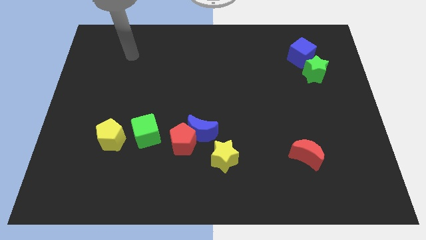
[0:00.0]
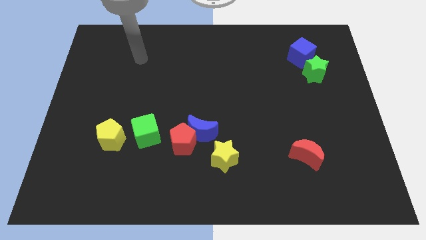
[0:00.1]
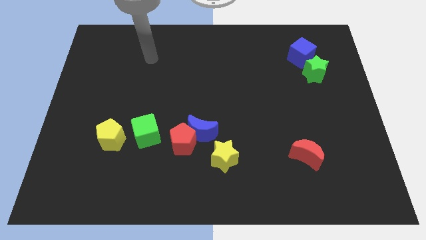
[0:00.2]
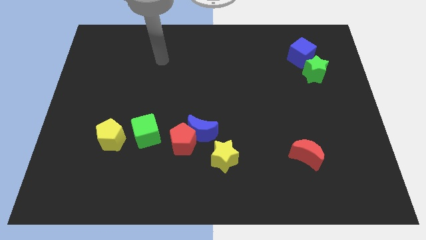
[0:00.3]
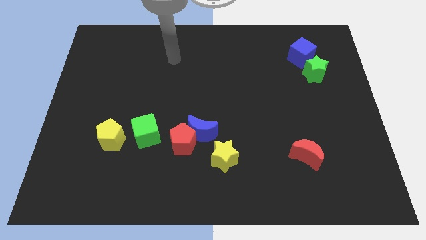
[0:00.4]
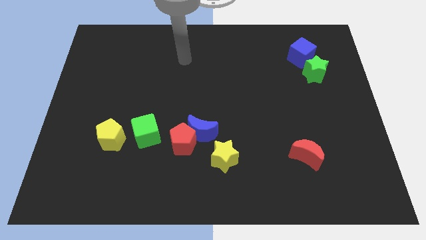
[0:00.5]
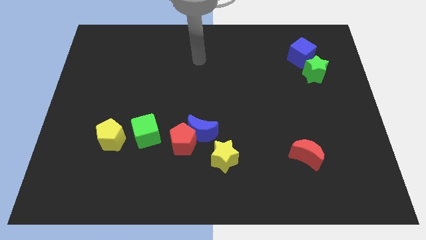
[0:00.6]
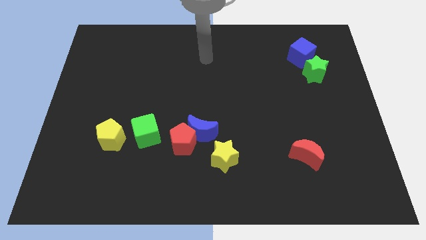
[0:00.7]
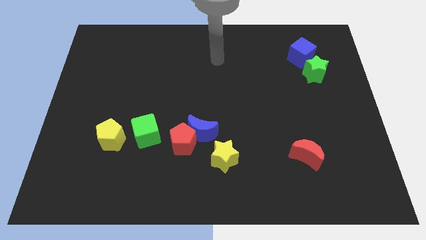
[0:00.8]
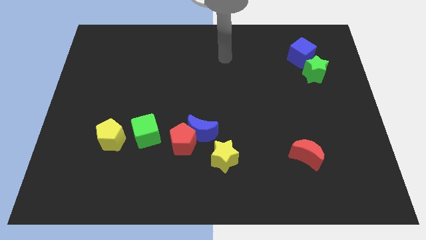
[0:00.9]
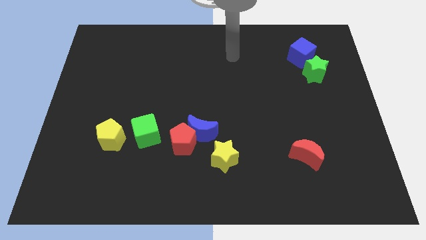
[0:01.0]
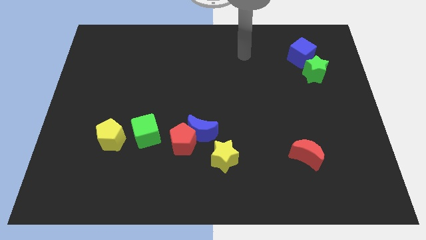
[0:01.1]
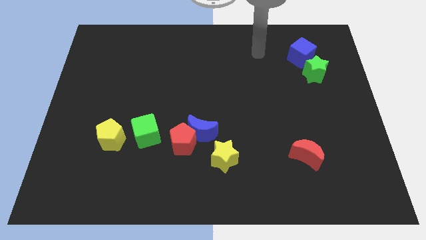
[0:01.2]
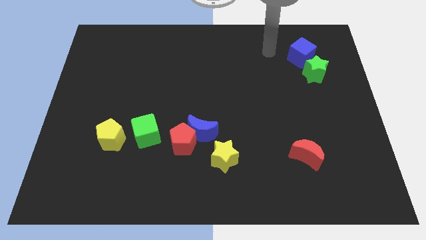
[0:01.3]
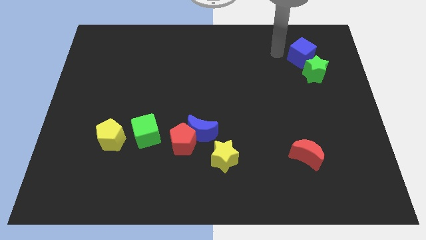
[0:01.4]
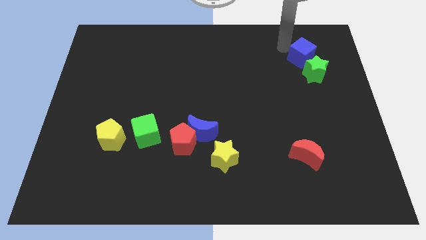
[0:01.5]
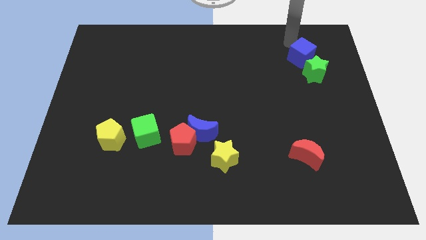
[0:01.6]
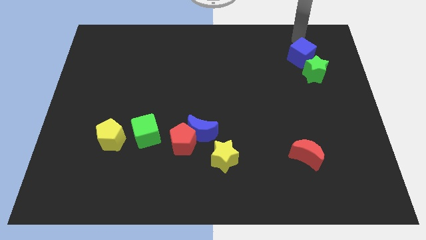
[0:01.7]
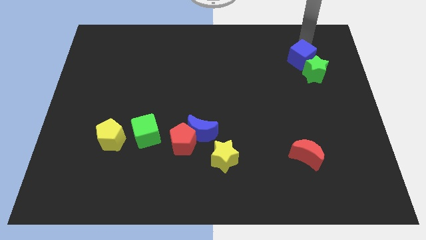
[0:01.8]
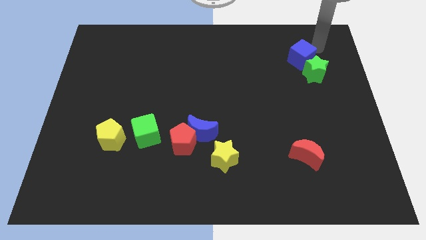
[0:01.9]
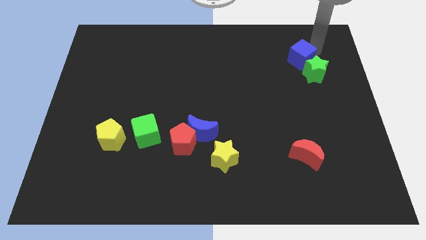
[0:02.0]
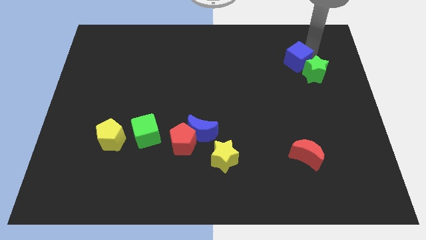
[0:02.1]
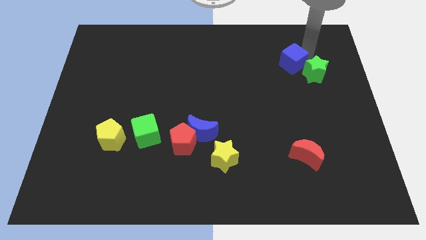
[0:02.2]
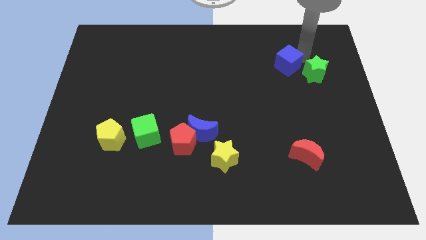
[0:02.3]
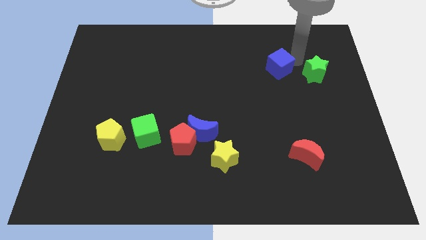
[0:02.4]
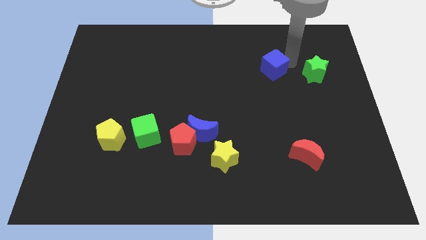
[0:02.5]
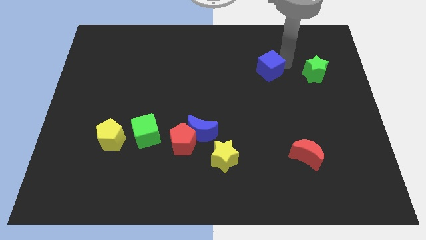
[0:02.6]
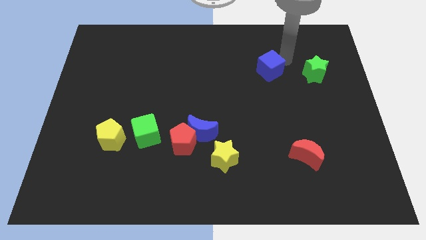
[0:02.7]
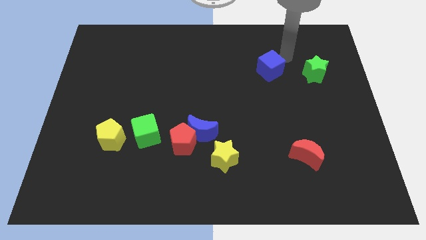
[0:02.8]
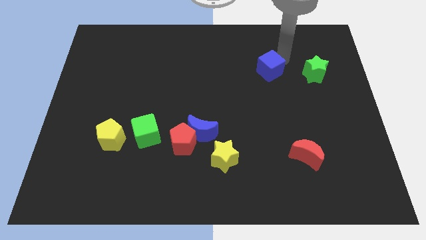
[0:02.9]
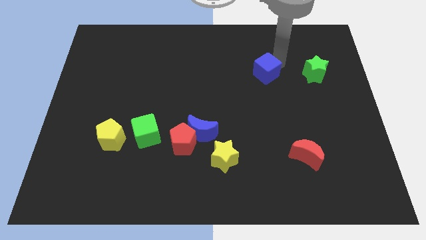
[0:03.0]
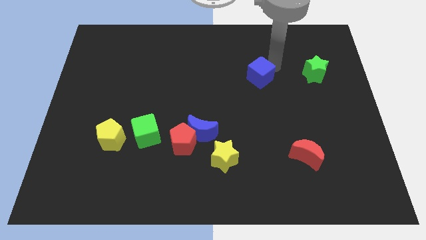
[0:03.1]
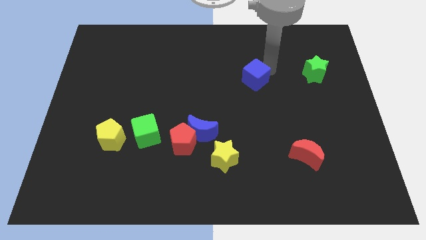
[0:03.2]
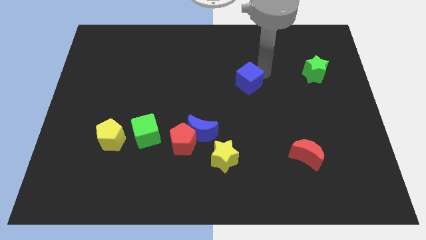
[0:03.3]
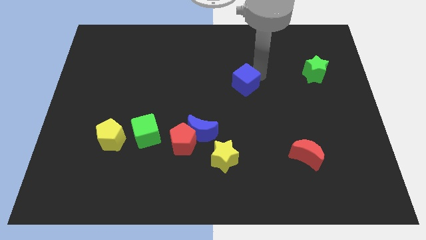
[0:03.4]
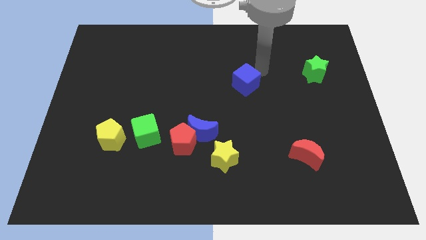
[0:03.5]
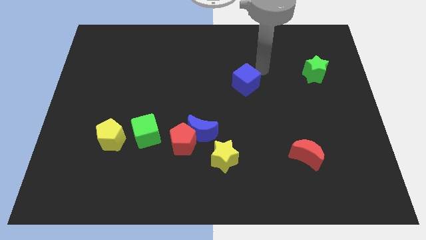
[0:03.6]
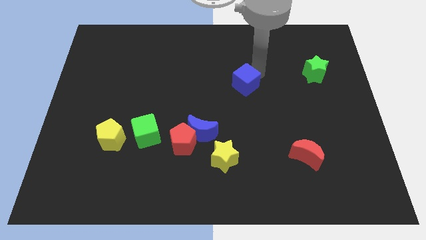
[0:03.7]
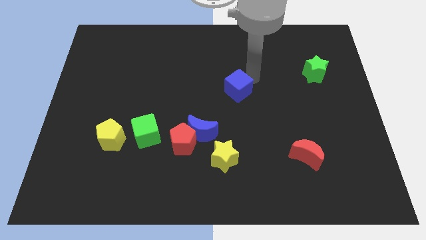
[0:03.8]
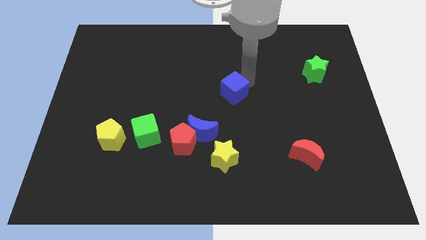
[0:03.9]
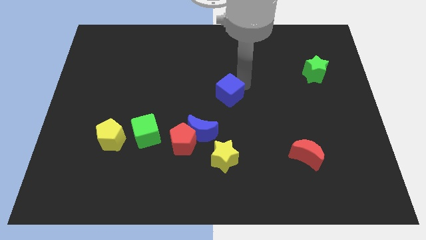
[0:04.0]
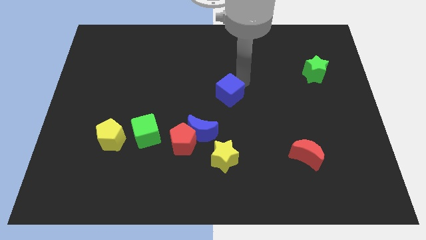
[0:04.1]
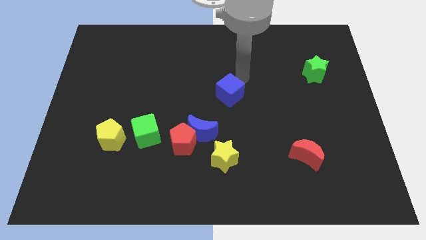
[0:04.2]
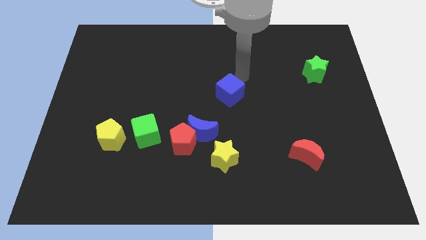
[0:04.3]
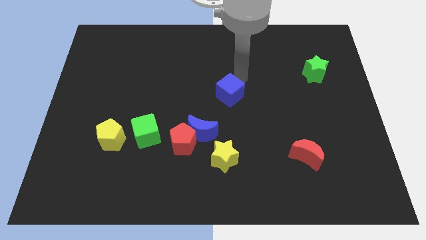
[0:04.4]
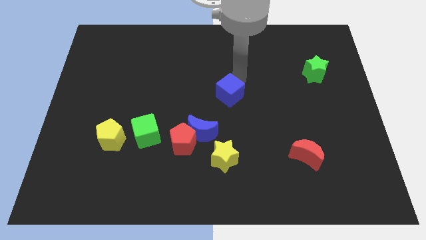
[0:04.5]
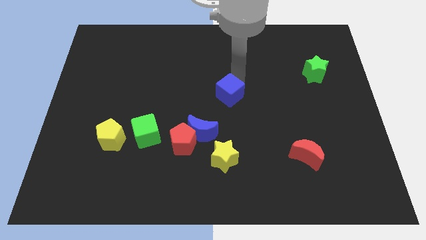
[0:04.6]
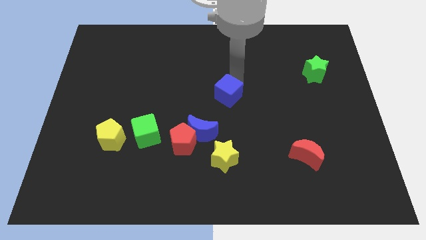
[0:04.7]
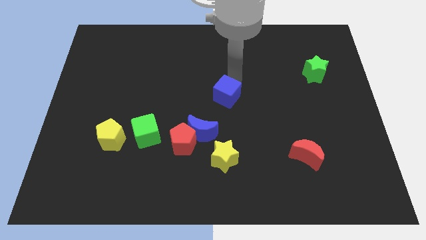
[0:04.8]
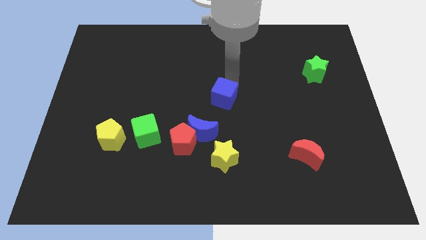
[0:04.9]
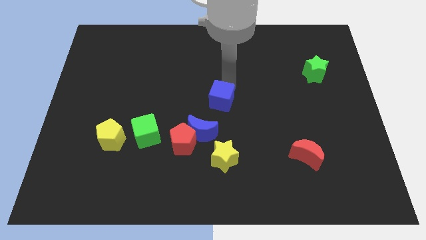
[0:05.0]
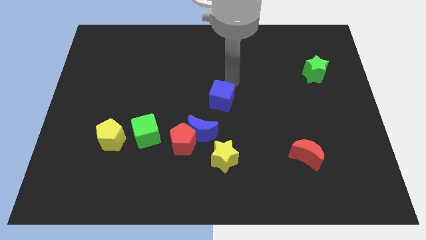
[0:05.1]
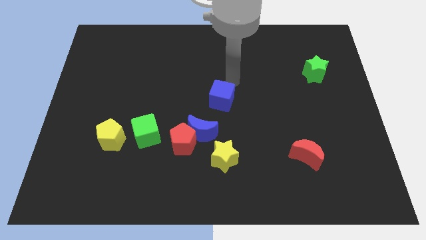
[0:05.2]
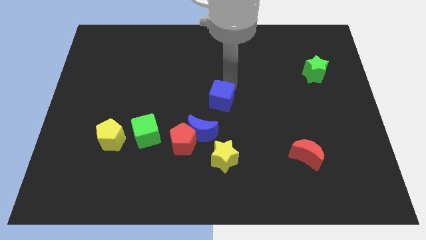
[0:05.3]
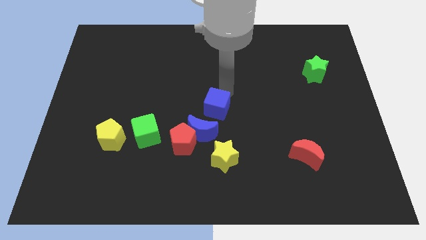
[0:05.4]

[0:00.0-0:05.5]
slide the blue cube to the top right of the red pentagon

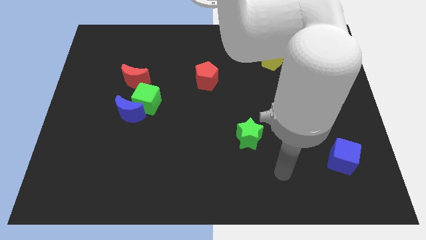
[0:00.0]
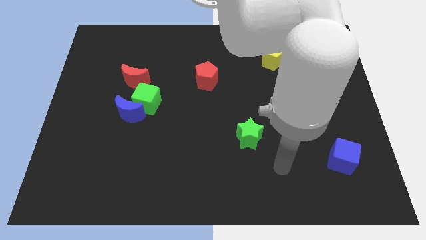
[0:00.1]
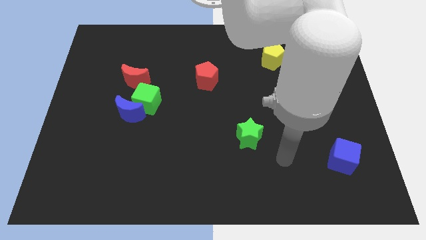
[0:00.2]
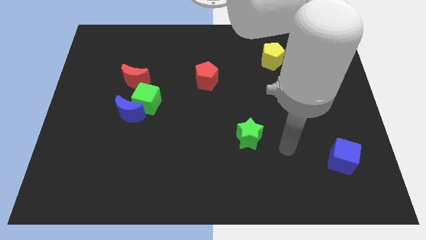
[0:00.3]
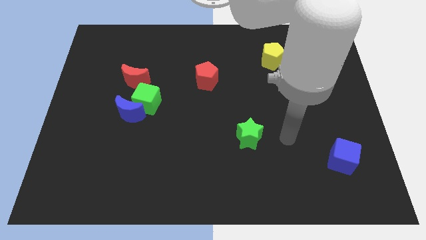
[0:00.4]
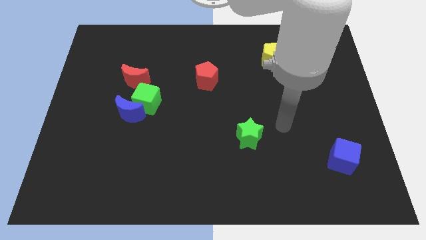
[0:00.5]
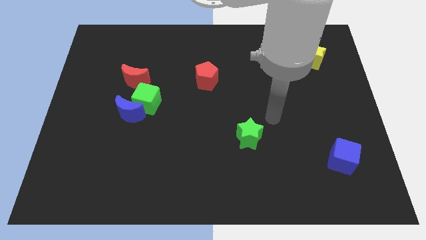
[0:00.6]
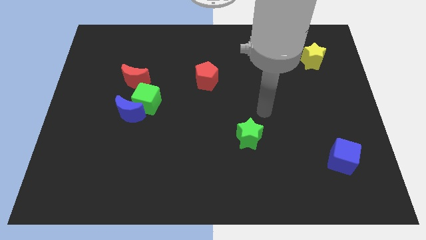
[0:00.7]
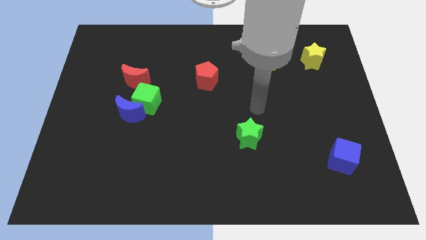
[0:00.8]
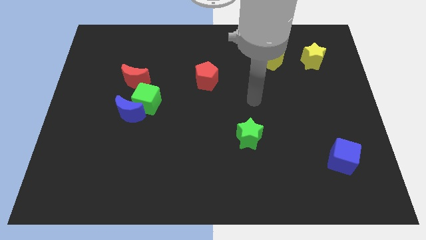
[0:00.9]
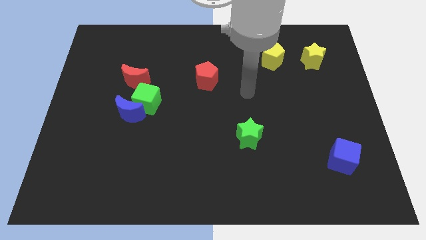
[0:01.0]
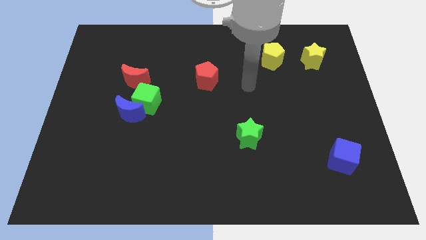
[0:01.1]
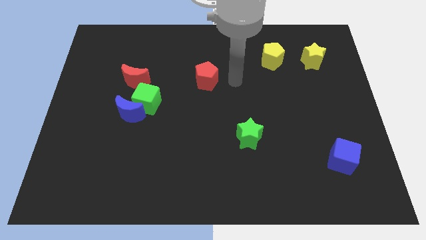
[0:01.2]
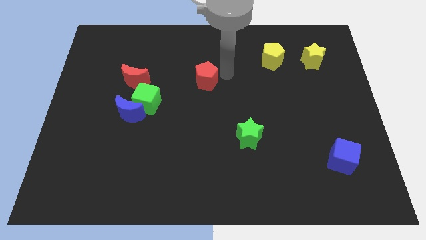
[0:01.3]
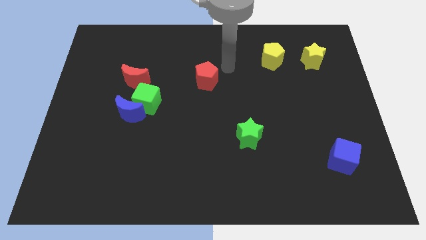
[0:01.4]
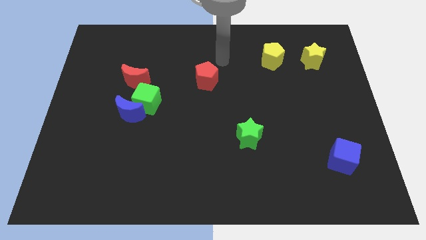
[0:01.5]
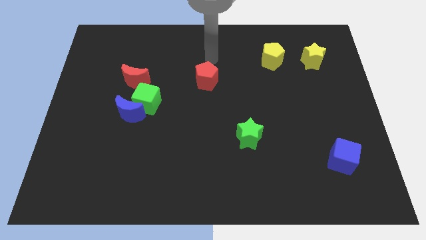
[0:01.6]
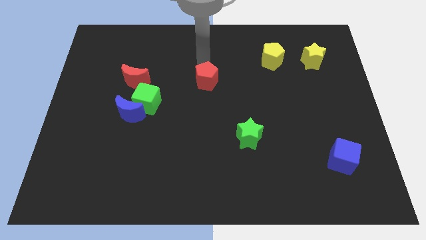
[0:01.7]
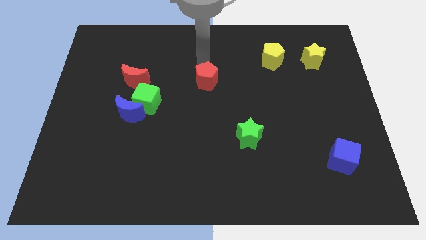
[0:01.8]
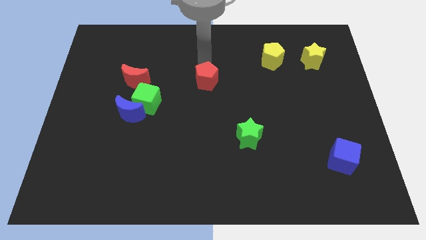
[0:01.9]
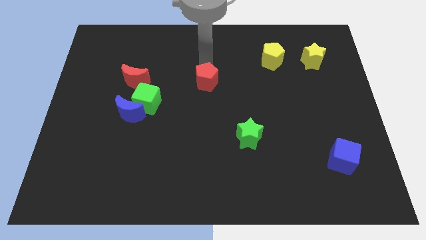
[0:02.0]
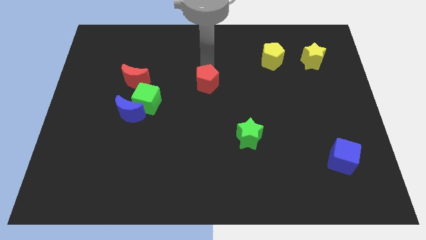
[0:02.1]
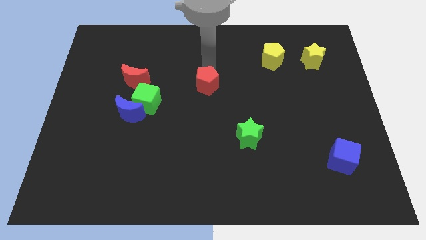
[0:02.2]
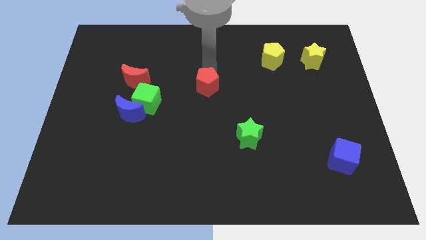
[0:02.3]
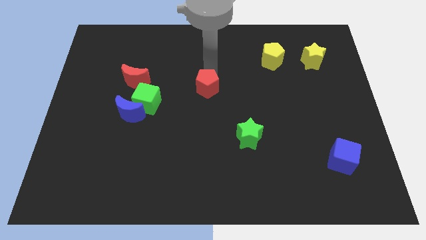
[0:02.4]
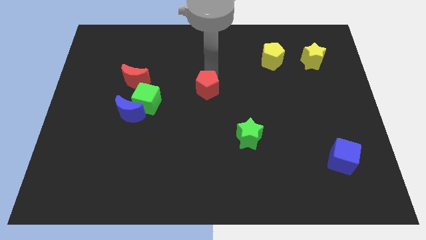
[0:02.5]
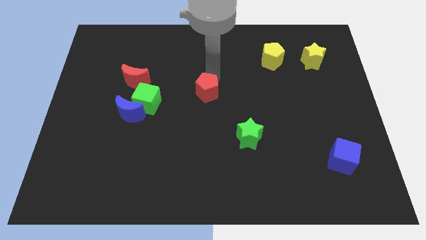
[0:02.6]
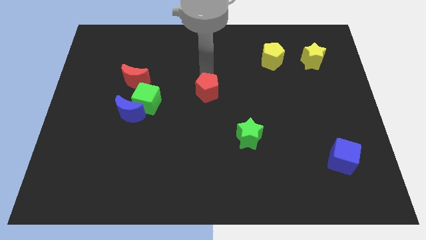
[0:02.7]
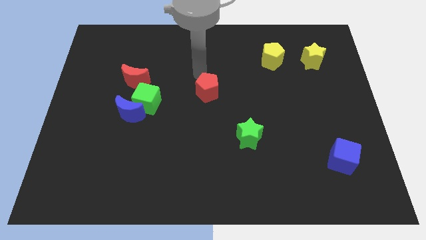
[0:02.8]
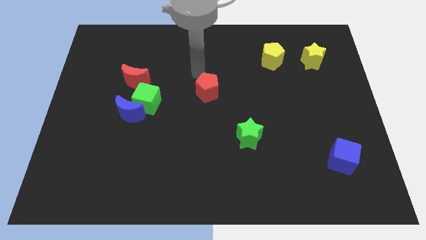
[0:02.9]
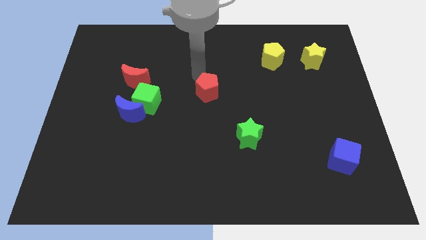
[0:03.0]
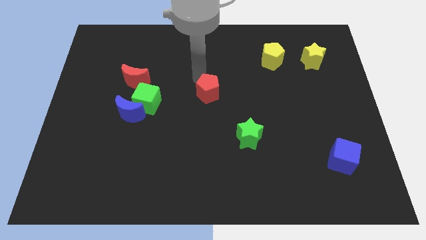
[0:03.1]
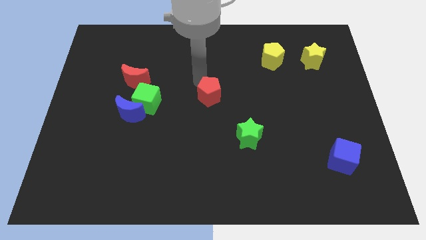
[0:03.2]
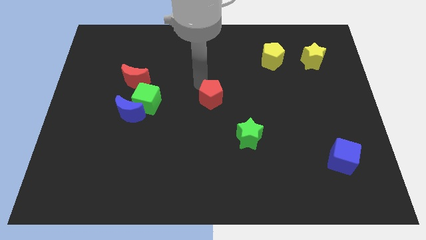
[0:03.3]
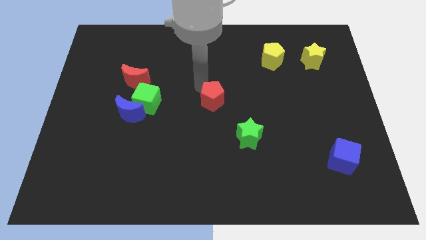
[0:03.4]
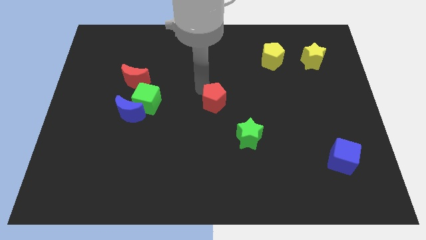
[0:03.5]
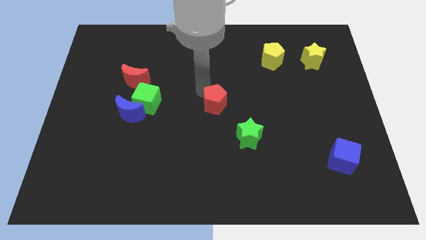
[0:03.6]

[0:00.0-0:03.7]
push the red pentagon to the top left side of the green star
